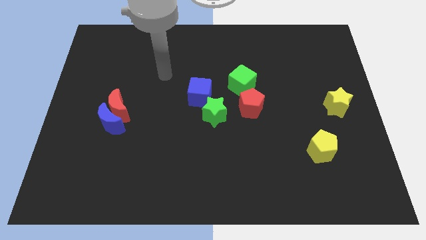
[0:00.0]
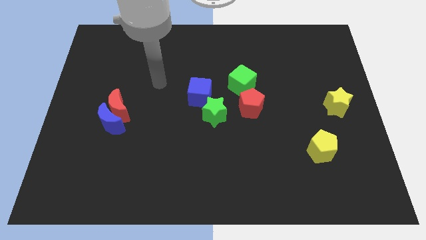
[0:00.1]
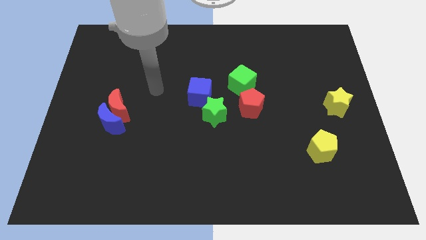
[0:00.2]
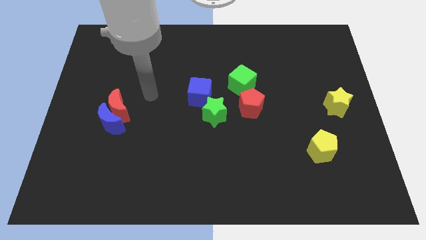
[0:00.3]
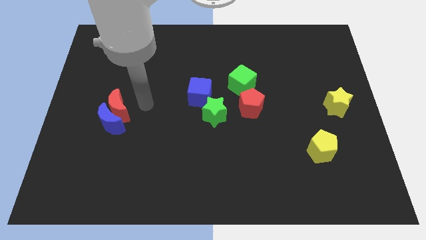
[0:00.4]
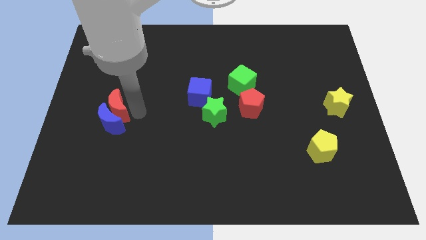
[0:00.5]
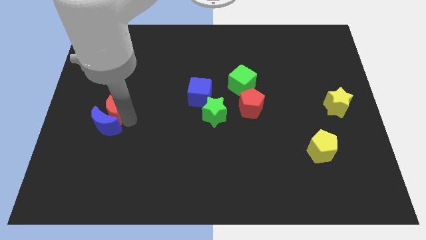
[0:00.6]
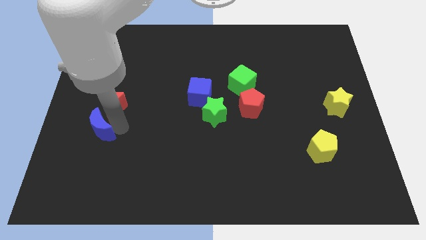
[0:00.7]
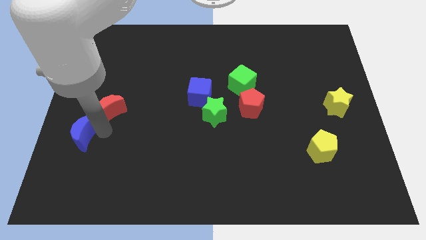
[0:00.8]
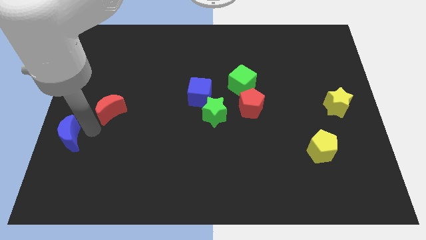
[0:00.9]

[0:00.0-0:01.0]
separate the red moon from the blue moon

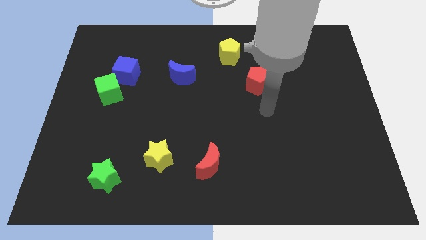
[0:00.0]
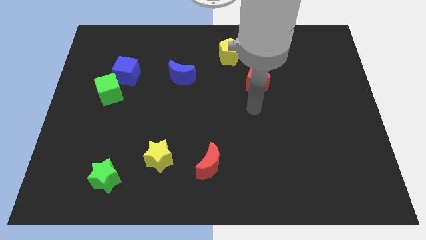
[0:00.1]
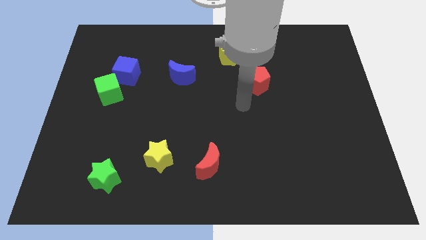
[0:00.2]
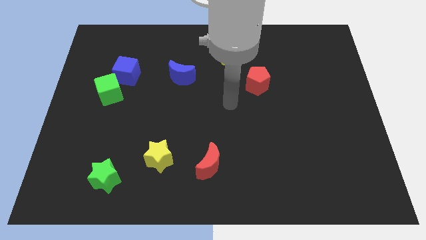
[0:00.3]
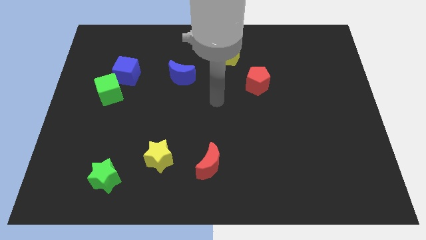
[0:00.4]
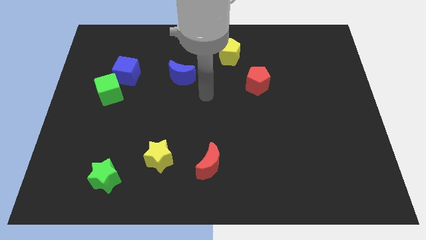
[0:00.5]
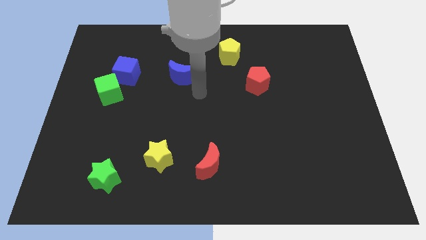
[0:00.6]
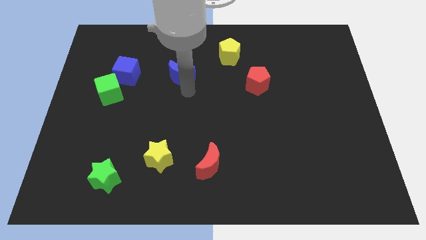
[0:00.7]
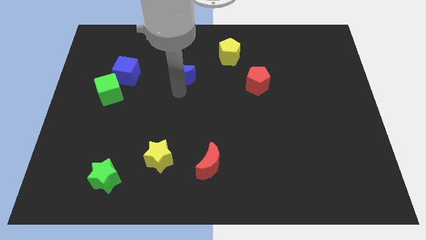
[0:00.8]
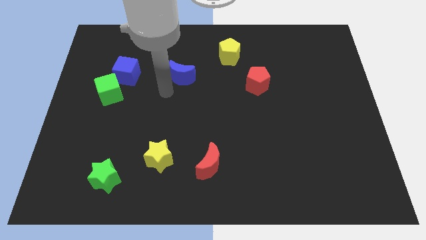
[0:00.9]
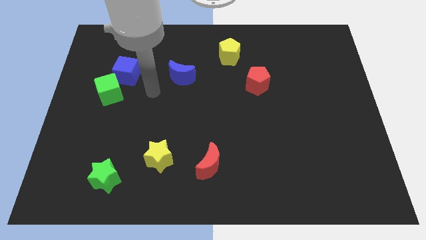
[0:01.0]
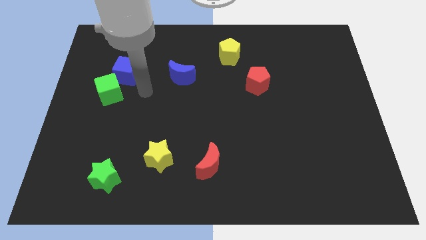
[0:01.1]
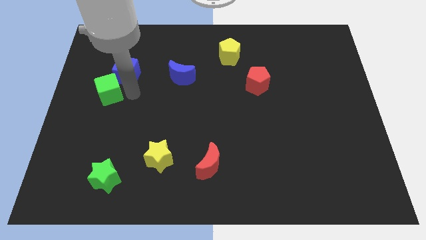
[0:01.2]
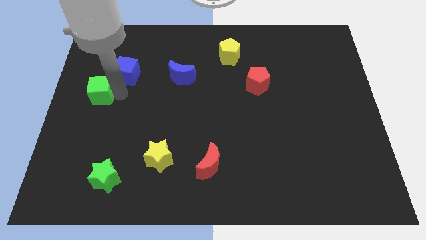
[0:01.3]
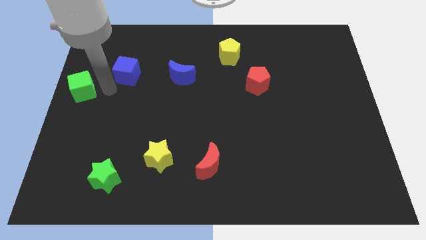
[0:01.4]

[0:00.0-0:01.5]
pull the blue cube apart from the green cube

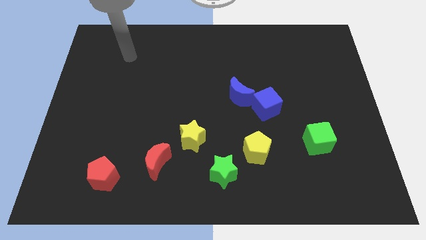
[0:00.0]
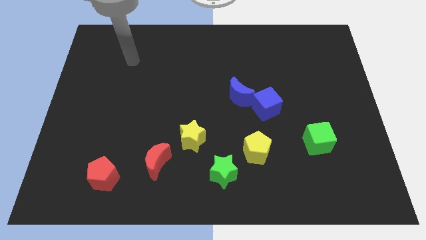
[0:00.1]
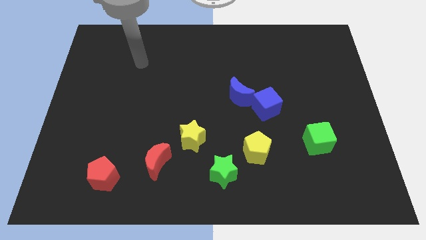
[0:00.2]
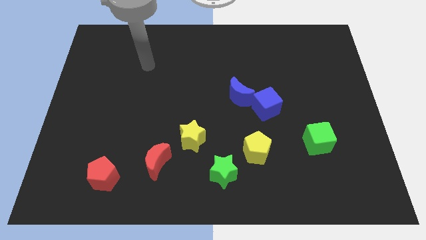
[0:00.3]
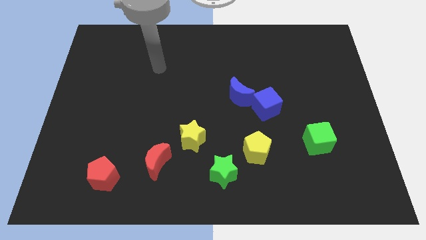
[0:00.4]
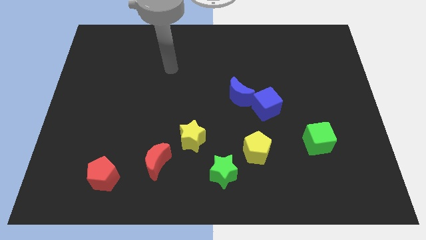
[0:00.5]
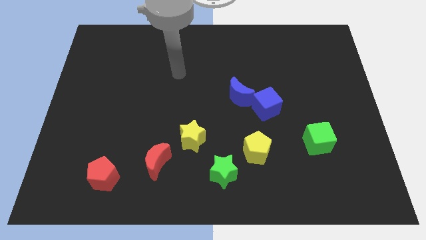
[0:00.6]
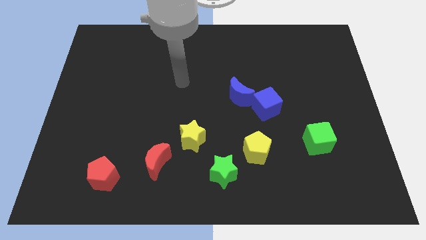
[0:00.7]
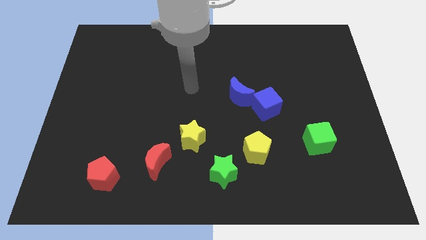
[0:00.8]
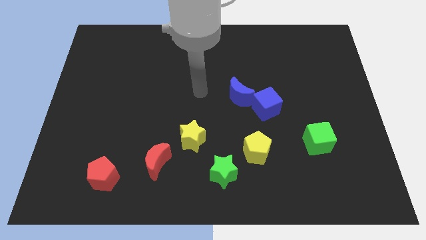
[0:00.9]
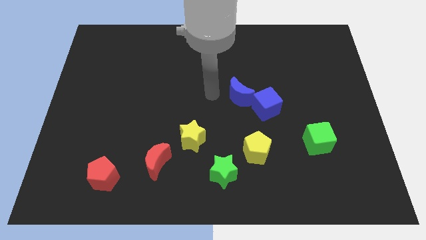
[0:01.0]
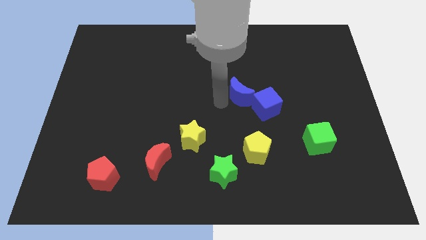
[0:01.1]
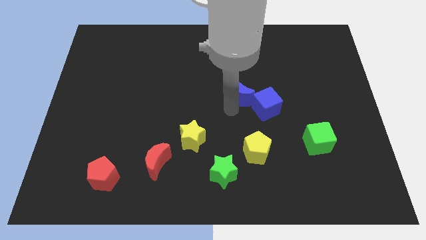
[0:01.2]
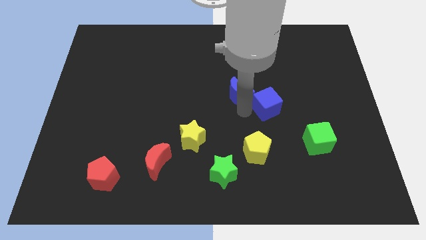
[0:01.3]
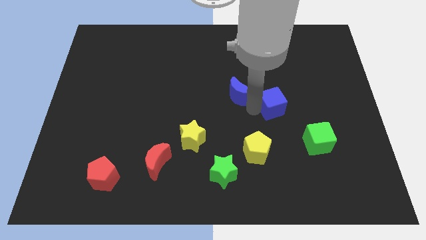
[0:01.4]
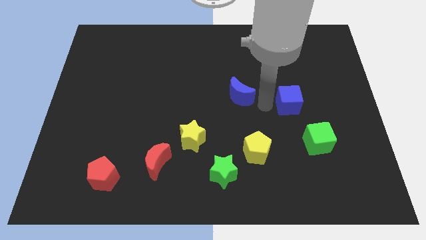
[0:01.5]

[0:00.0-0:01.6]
separate the blue moon from the blue cube

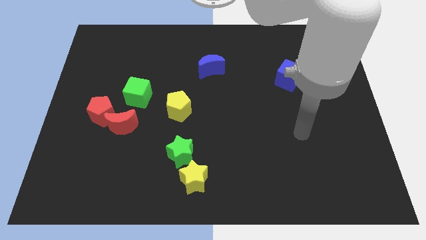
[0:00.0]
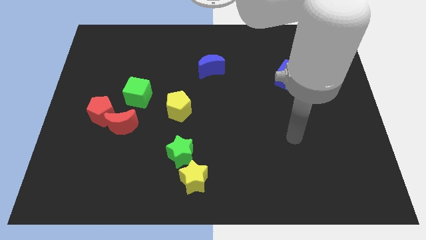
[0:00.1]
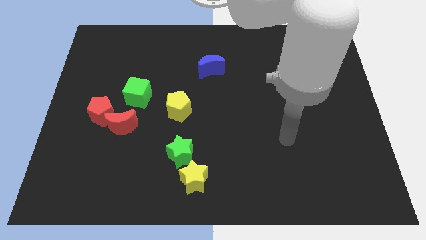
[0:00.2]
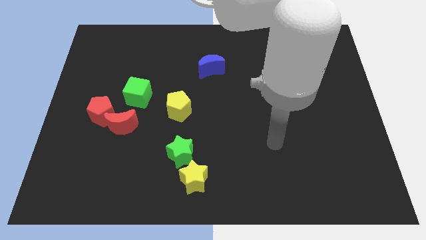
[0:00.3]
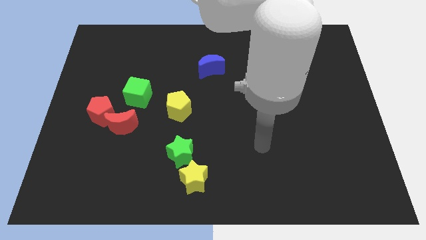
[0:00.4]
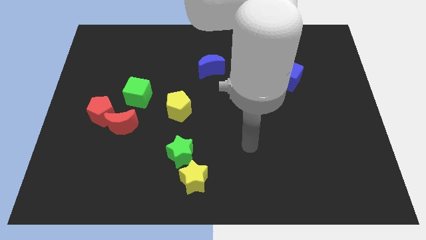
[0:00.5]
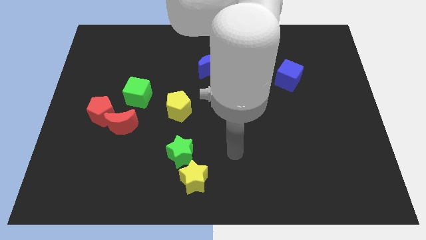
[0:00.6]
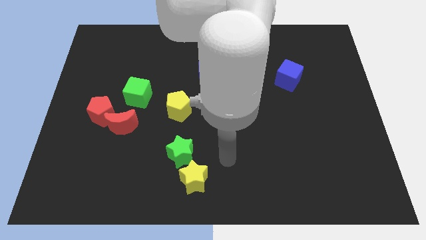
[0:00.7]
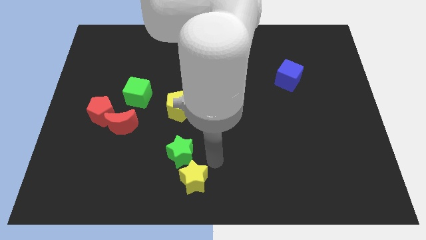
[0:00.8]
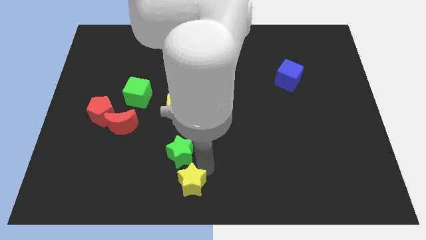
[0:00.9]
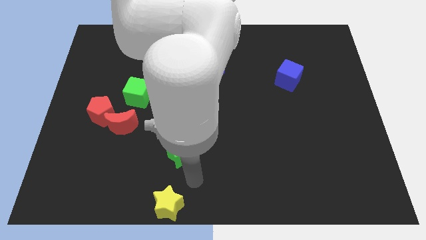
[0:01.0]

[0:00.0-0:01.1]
separate the green star from the yellow star

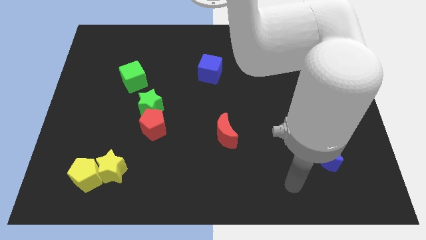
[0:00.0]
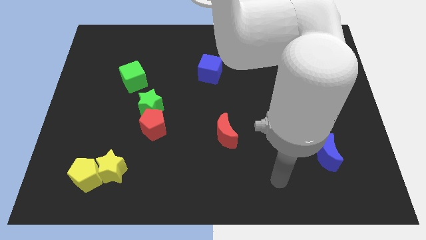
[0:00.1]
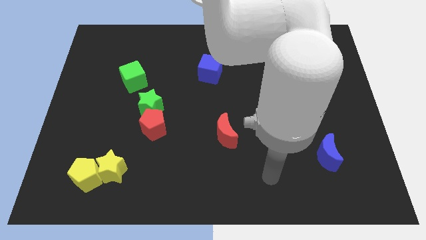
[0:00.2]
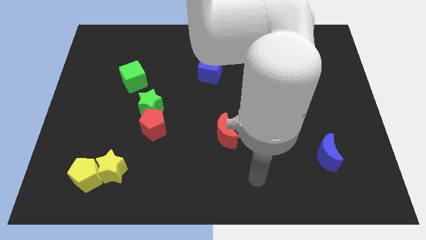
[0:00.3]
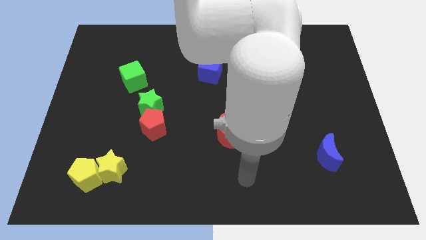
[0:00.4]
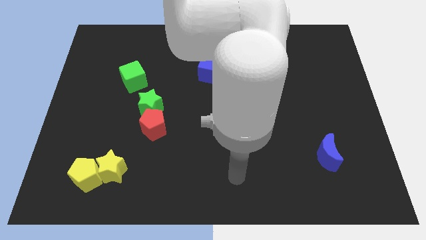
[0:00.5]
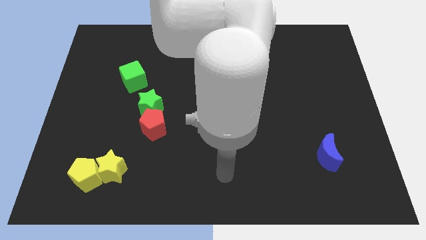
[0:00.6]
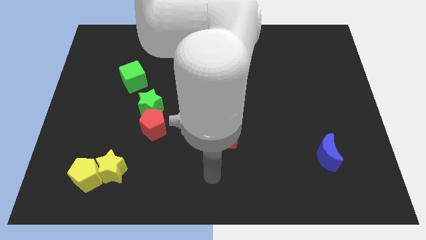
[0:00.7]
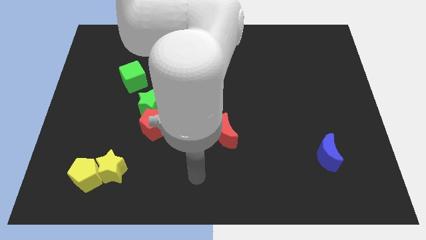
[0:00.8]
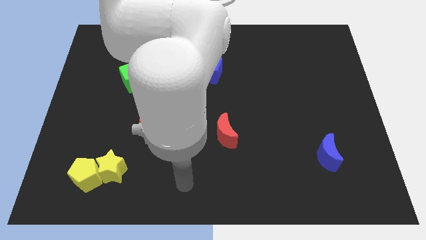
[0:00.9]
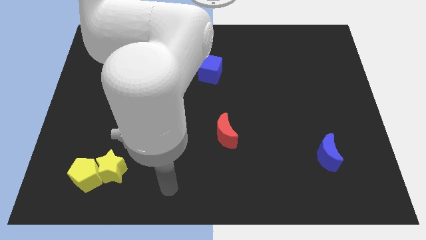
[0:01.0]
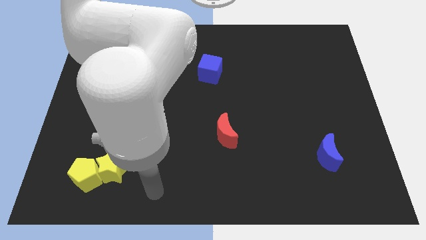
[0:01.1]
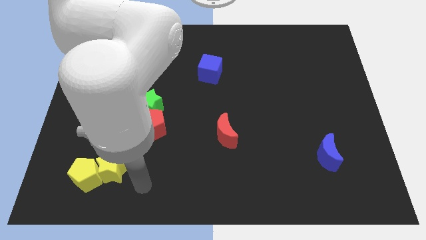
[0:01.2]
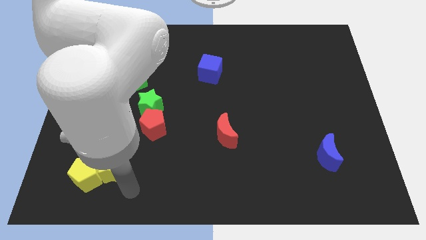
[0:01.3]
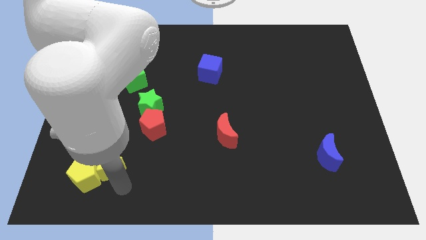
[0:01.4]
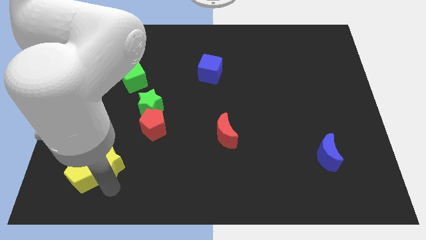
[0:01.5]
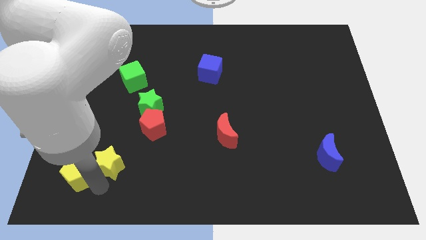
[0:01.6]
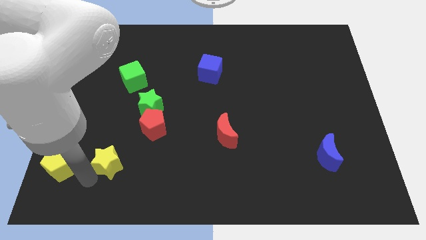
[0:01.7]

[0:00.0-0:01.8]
separate the yellow star from the yellow pentagon

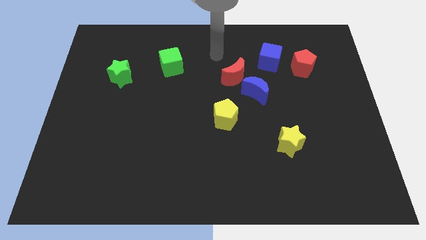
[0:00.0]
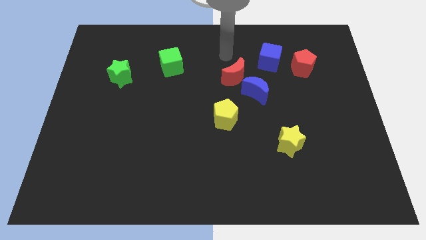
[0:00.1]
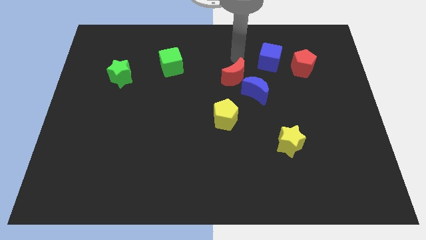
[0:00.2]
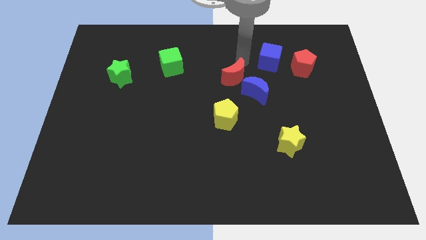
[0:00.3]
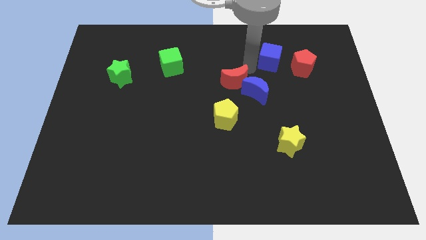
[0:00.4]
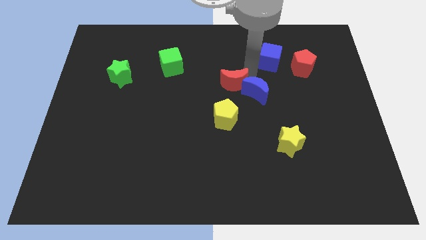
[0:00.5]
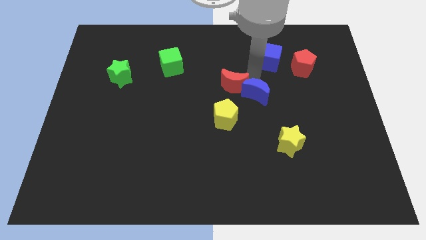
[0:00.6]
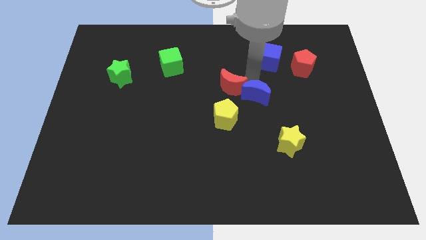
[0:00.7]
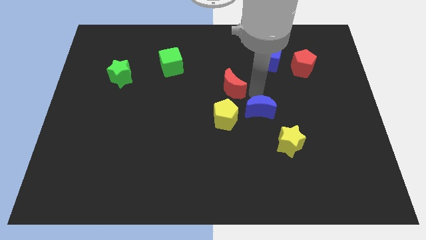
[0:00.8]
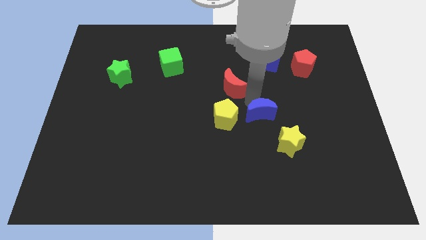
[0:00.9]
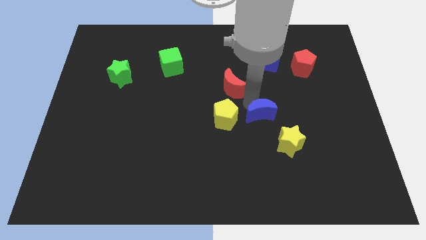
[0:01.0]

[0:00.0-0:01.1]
pull the red moon apart from the blue moon

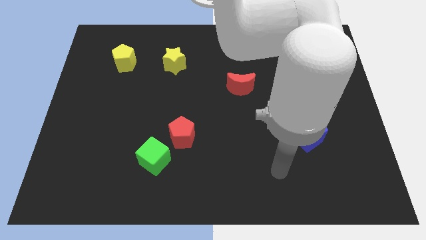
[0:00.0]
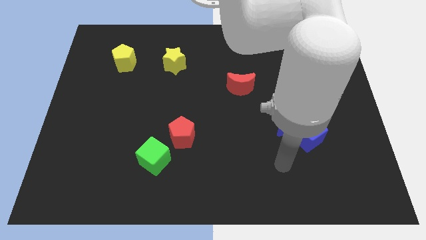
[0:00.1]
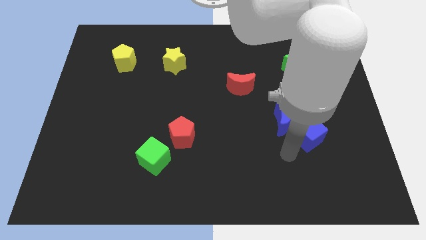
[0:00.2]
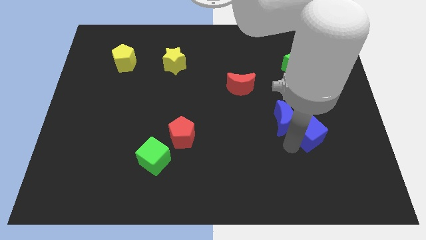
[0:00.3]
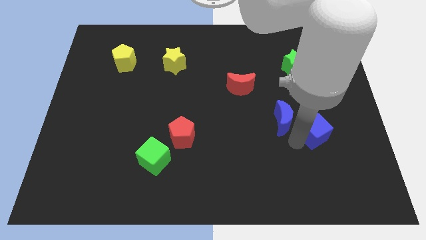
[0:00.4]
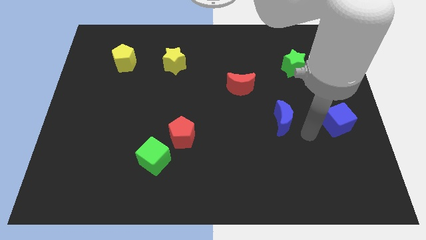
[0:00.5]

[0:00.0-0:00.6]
move the blue moon away from the blue cube

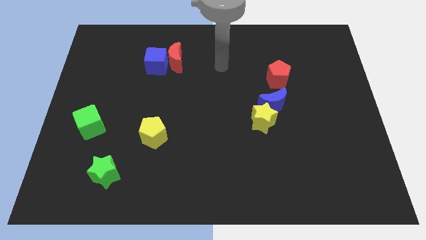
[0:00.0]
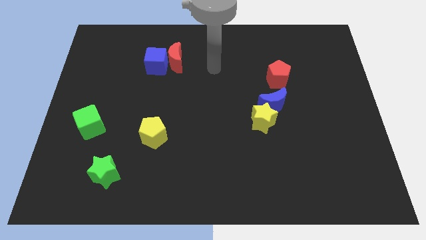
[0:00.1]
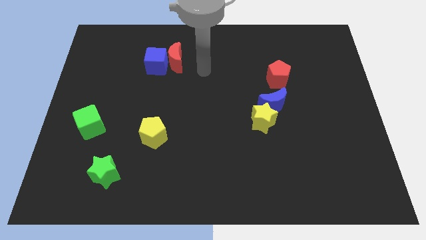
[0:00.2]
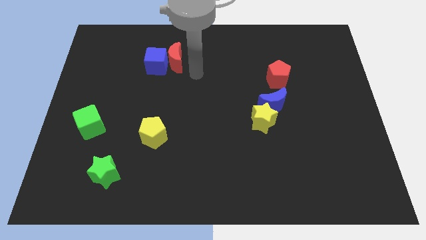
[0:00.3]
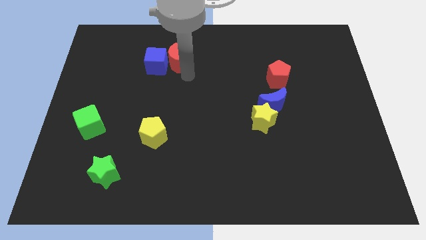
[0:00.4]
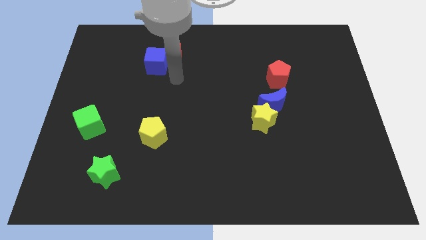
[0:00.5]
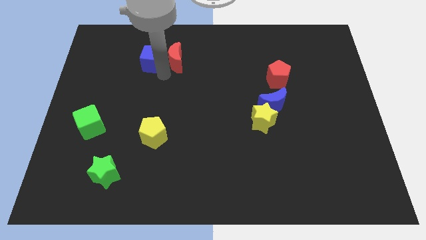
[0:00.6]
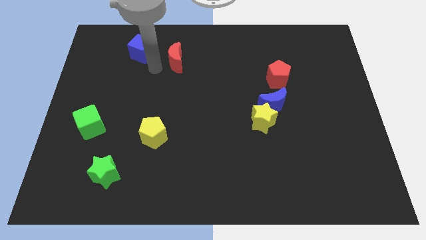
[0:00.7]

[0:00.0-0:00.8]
move the red moon away from the blue cube
